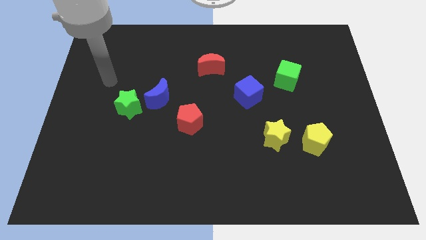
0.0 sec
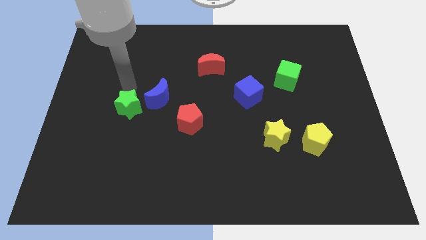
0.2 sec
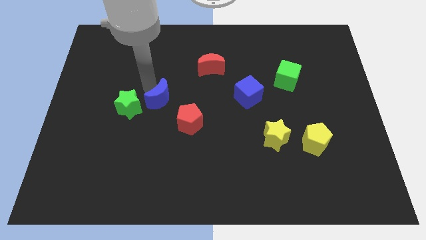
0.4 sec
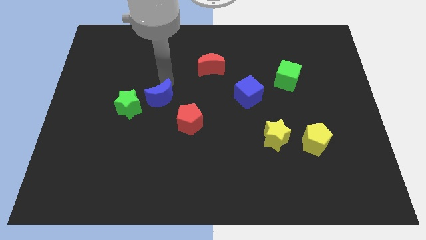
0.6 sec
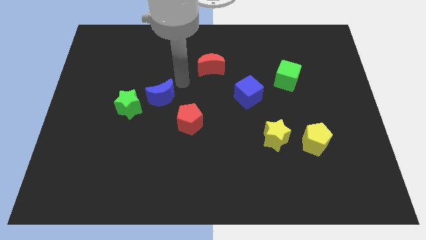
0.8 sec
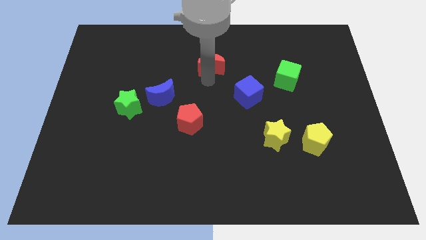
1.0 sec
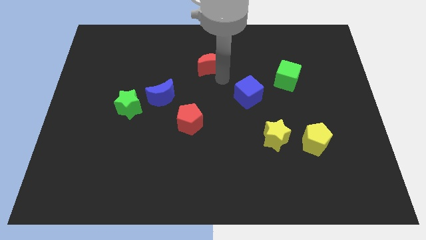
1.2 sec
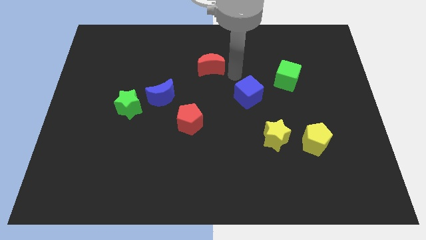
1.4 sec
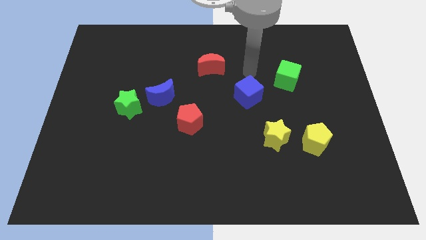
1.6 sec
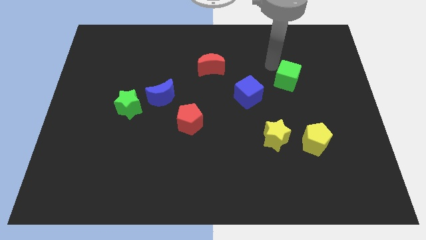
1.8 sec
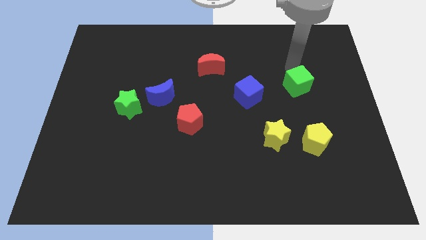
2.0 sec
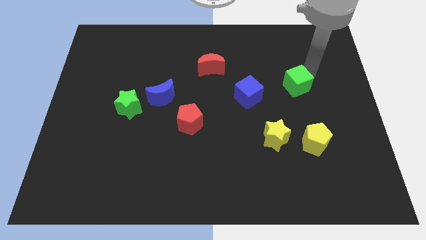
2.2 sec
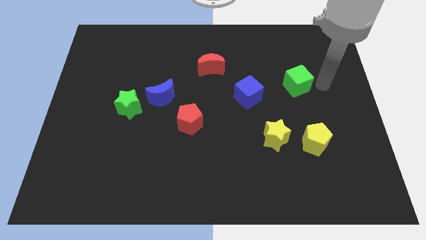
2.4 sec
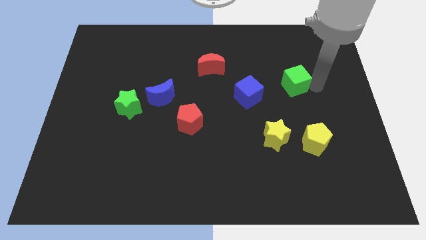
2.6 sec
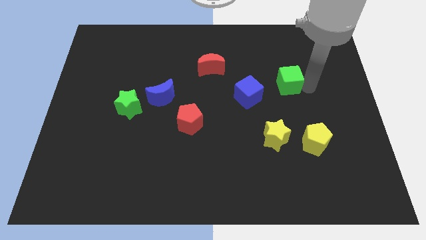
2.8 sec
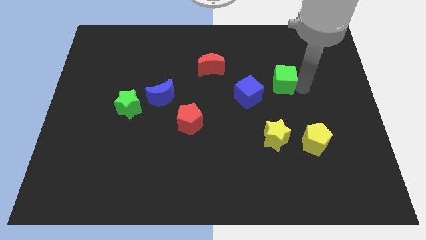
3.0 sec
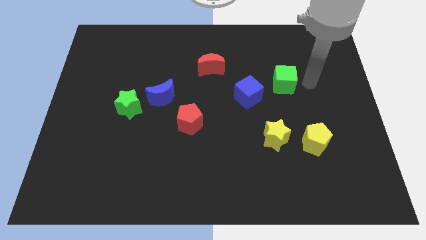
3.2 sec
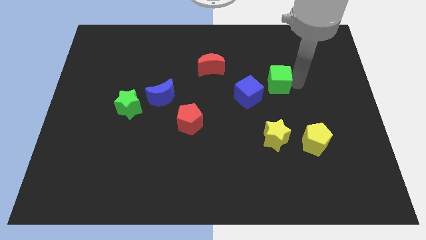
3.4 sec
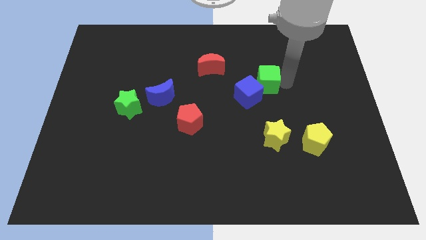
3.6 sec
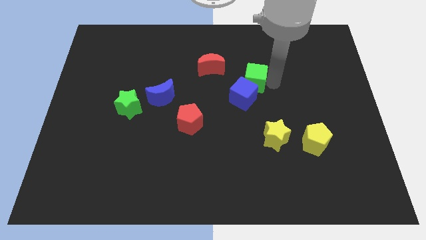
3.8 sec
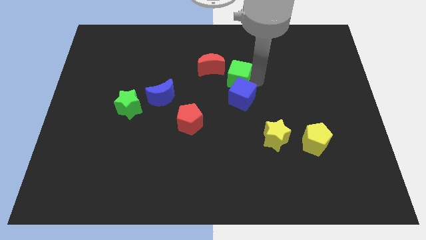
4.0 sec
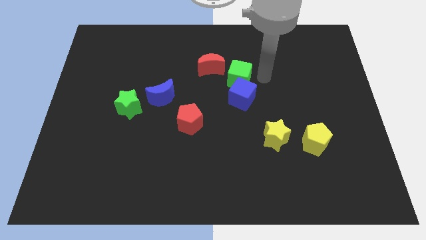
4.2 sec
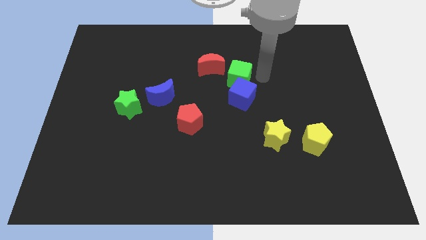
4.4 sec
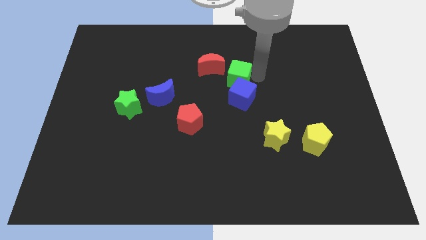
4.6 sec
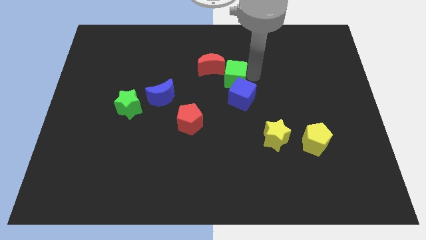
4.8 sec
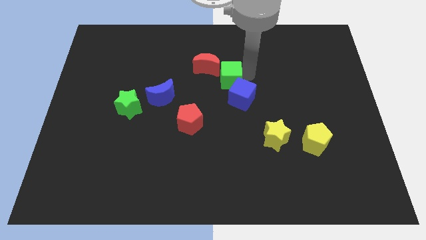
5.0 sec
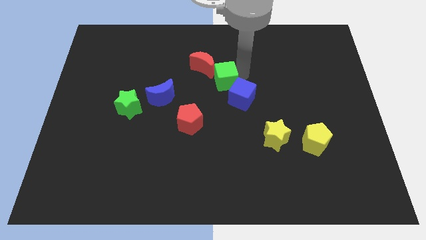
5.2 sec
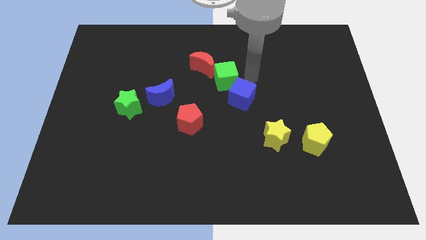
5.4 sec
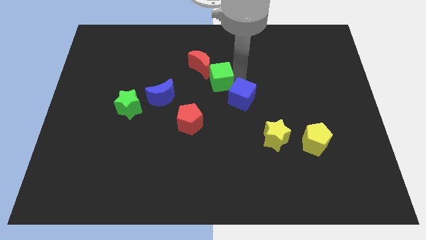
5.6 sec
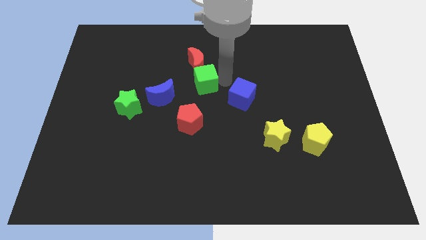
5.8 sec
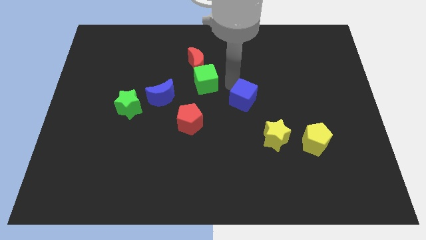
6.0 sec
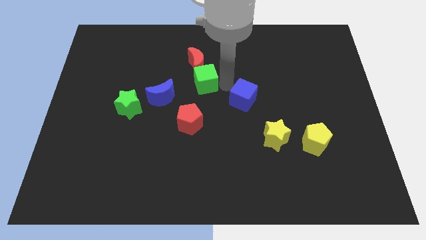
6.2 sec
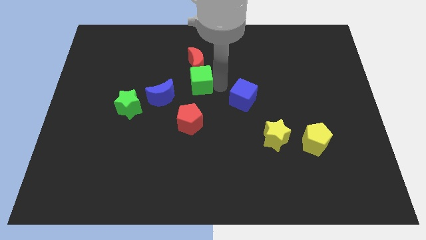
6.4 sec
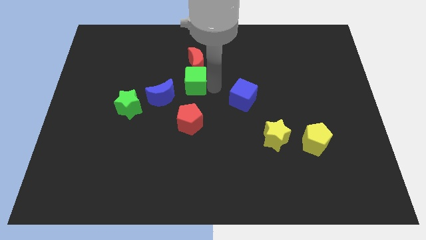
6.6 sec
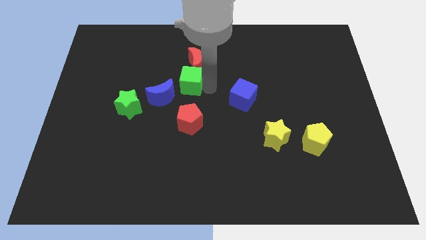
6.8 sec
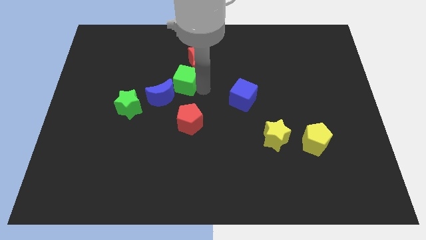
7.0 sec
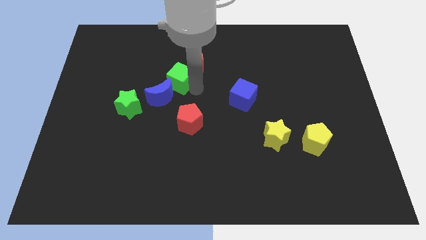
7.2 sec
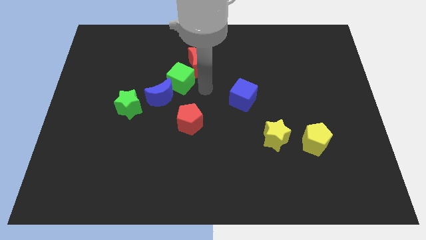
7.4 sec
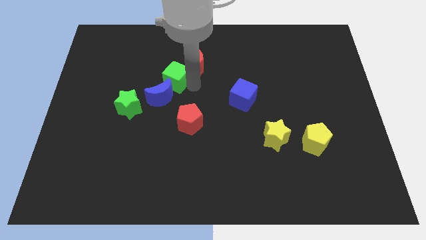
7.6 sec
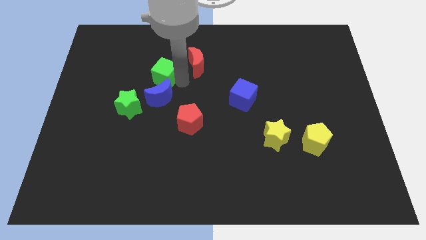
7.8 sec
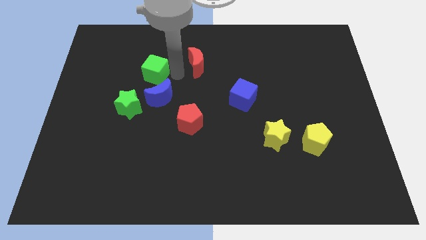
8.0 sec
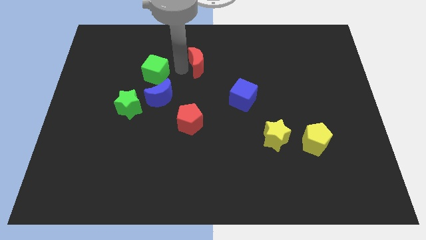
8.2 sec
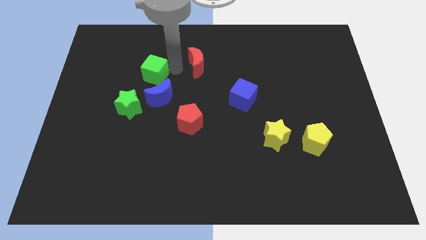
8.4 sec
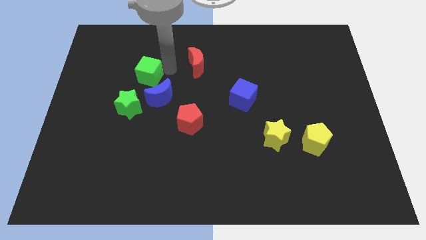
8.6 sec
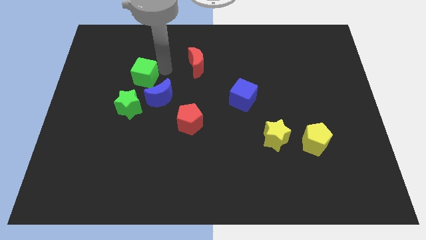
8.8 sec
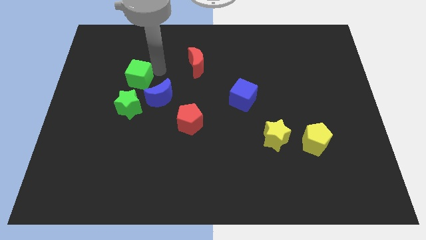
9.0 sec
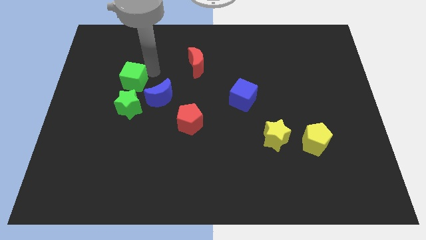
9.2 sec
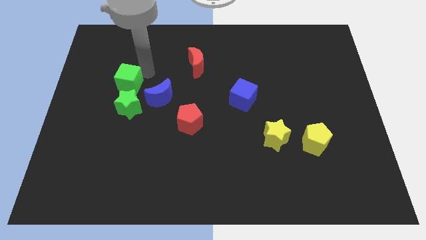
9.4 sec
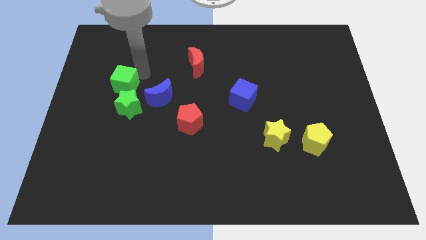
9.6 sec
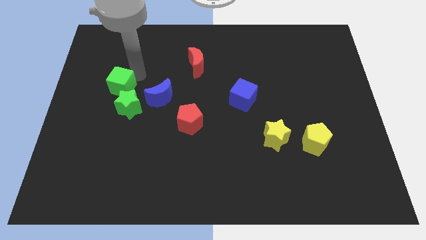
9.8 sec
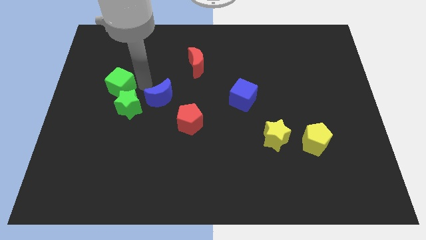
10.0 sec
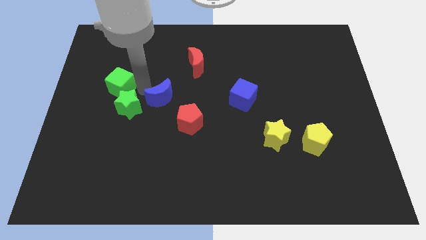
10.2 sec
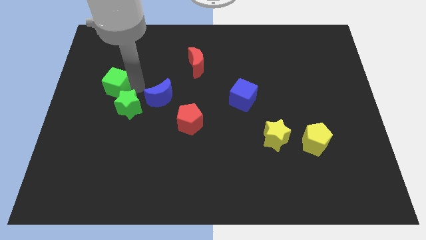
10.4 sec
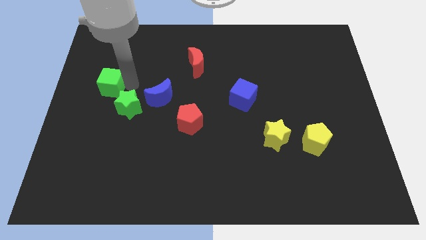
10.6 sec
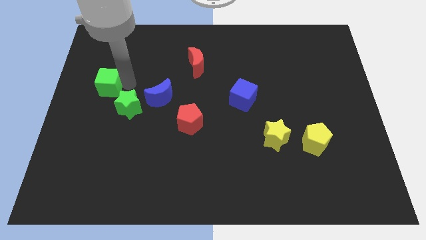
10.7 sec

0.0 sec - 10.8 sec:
push the green cube to the center left

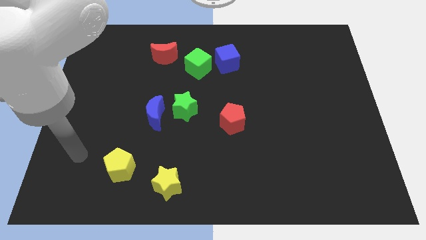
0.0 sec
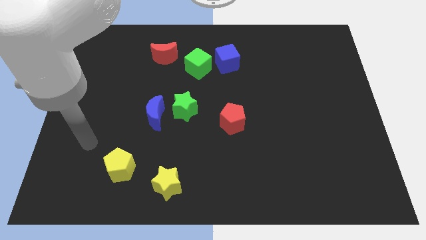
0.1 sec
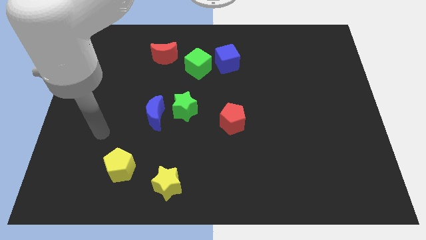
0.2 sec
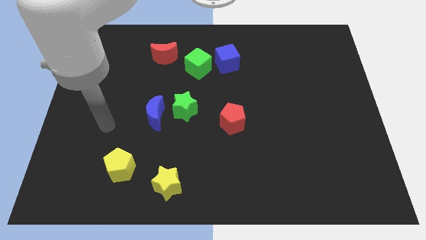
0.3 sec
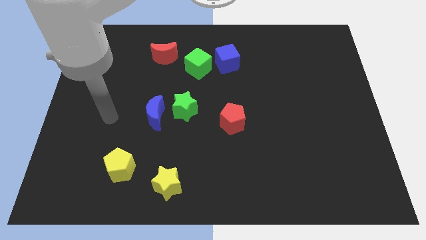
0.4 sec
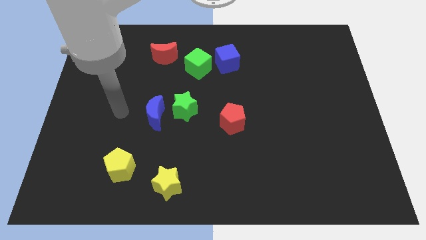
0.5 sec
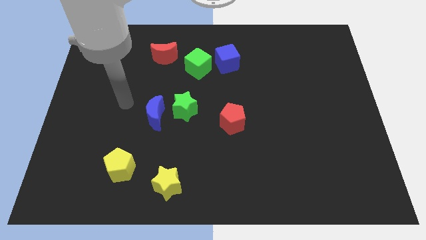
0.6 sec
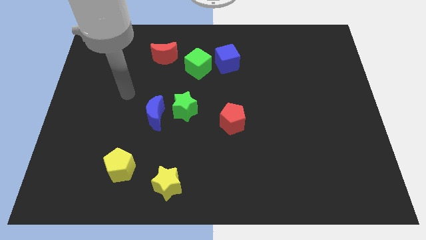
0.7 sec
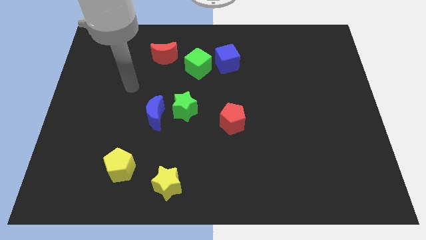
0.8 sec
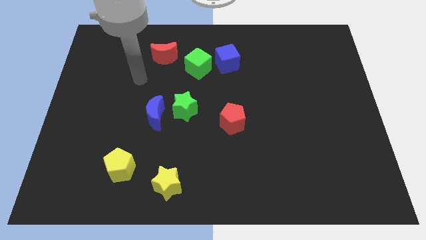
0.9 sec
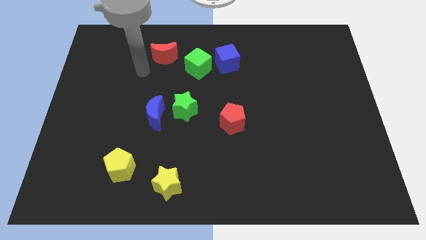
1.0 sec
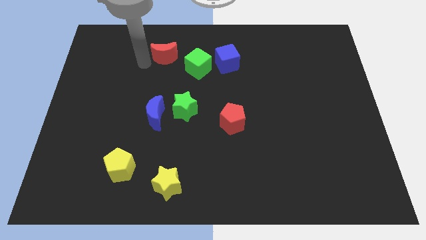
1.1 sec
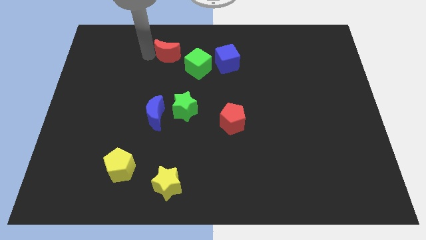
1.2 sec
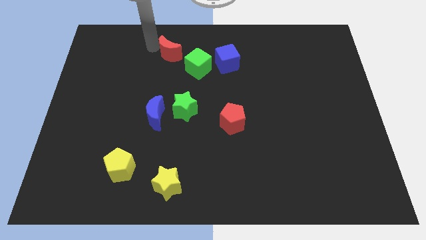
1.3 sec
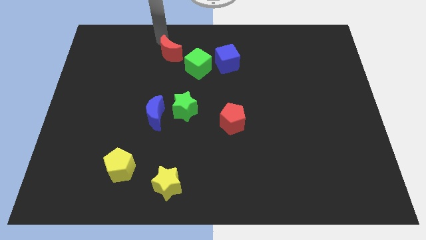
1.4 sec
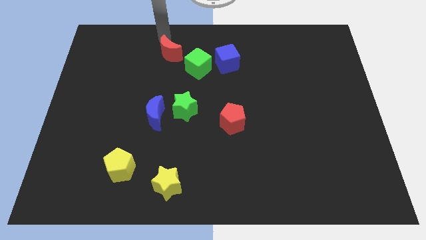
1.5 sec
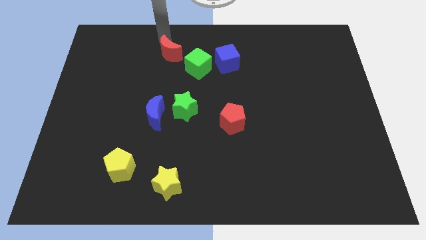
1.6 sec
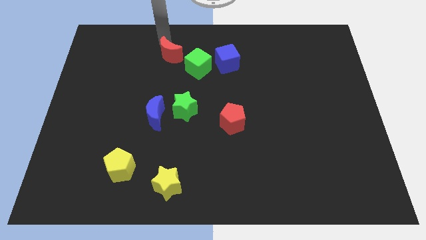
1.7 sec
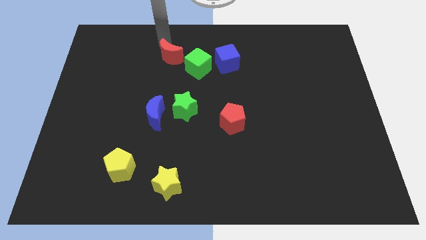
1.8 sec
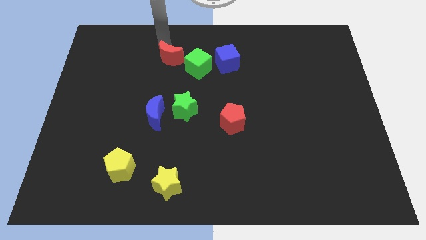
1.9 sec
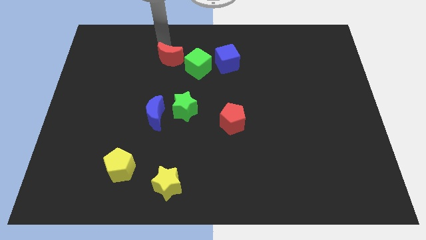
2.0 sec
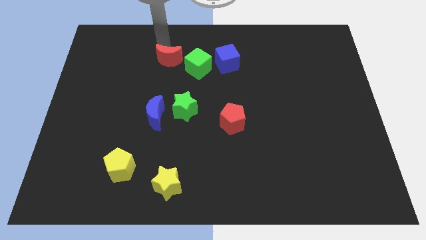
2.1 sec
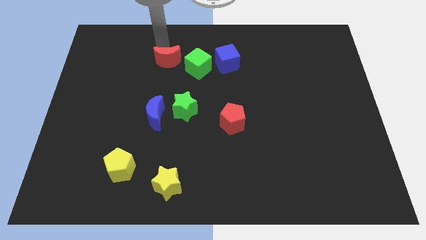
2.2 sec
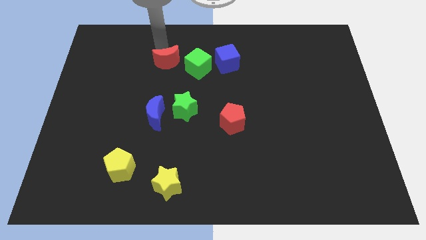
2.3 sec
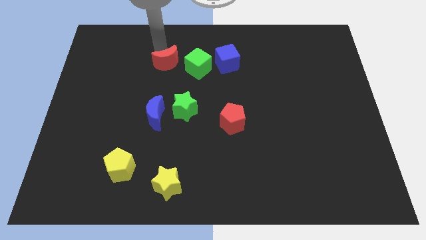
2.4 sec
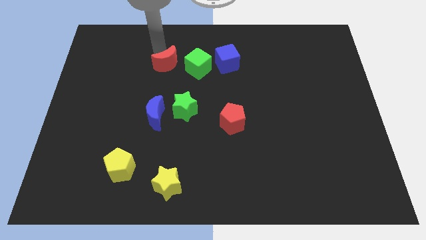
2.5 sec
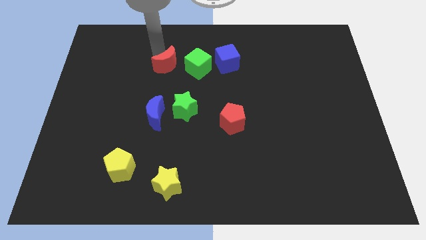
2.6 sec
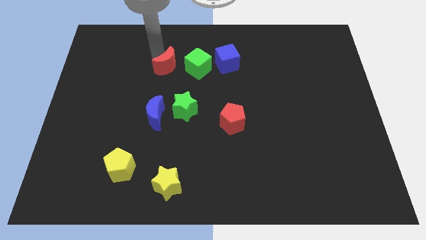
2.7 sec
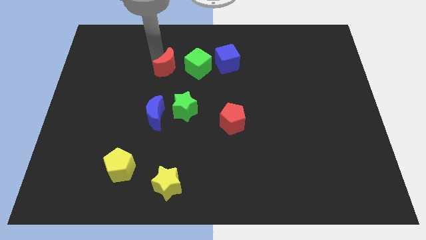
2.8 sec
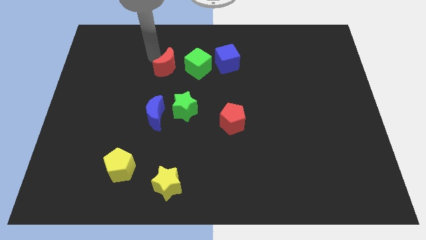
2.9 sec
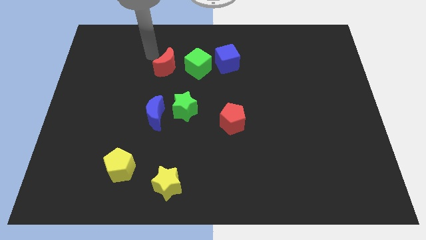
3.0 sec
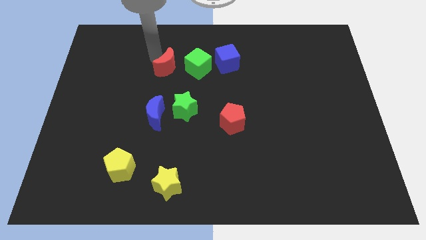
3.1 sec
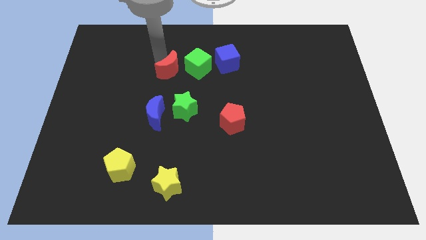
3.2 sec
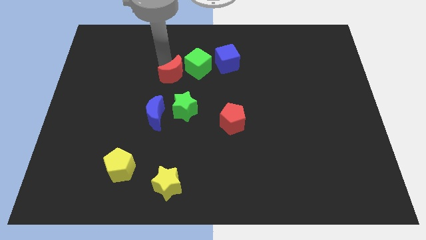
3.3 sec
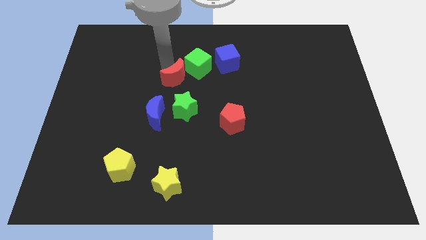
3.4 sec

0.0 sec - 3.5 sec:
move the red moon to the center
